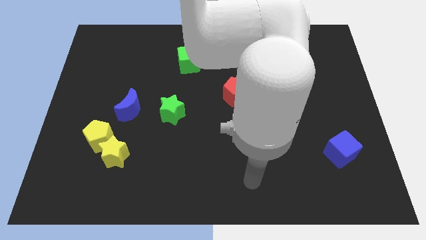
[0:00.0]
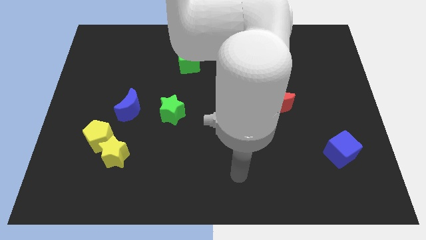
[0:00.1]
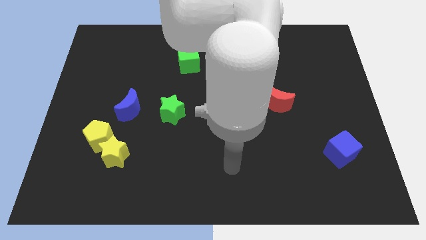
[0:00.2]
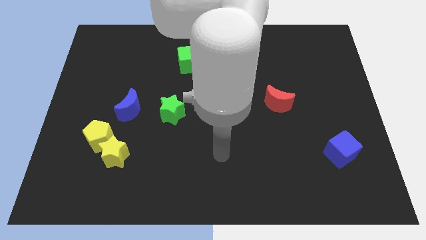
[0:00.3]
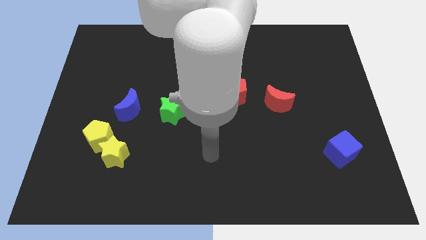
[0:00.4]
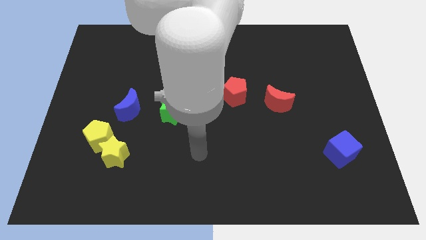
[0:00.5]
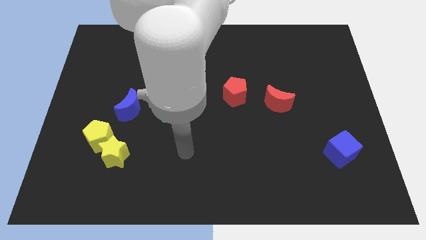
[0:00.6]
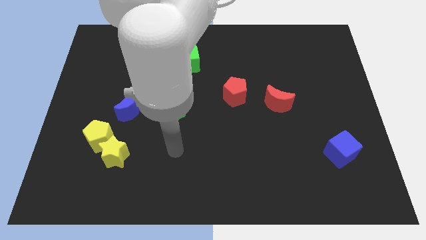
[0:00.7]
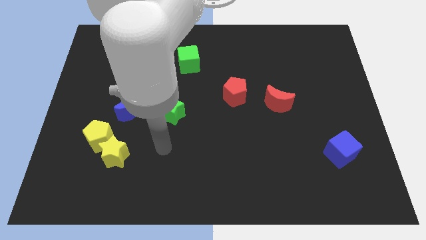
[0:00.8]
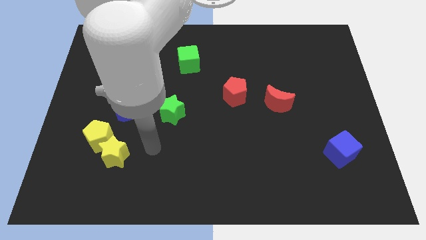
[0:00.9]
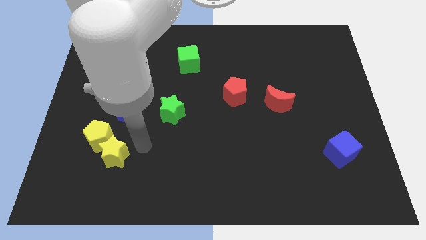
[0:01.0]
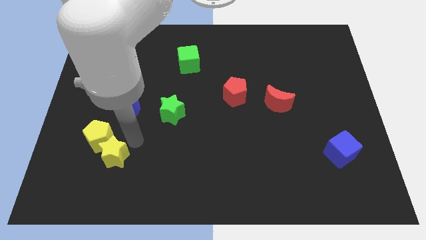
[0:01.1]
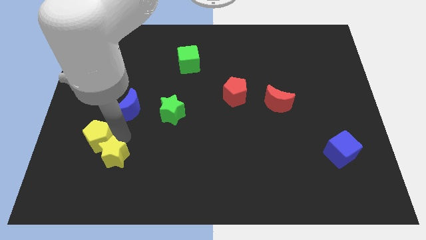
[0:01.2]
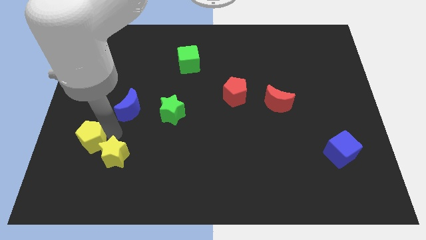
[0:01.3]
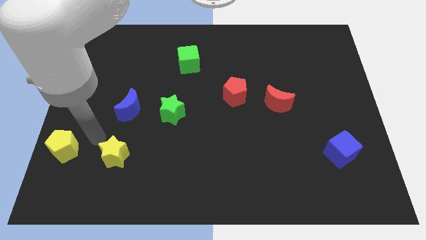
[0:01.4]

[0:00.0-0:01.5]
move the yellow star away from the yellow pentagon

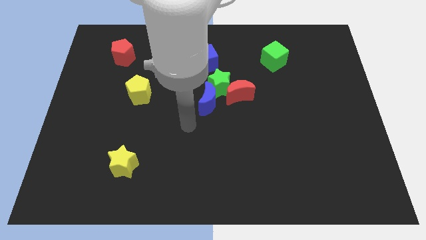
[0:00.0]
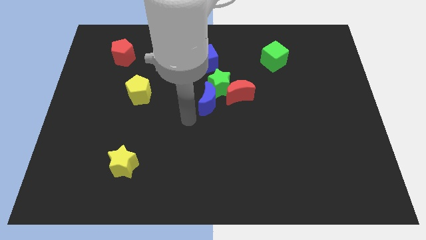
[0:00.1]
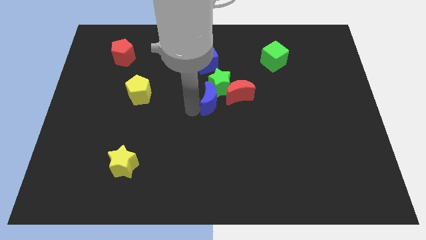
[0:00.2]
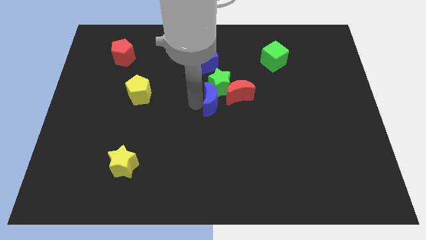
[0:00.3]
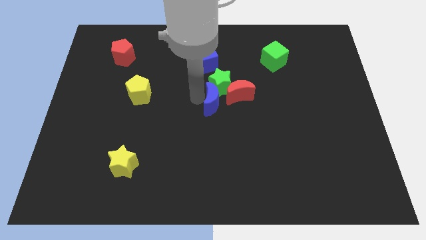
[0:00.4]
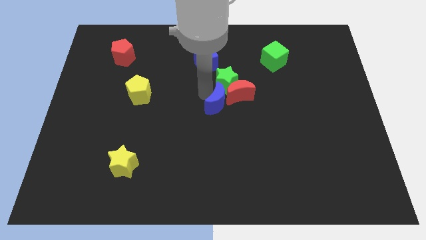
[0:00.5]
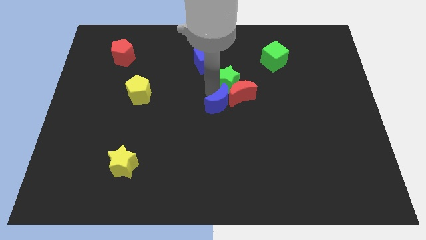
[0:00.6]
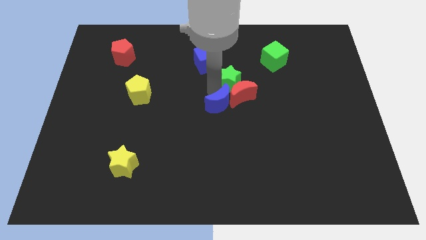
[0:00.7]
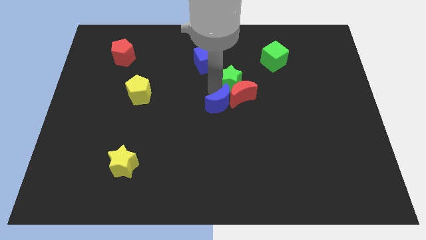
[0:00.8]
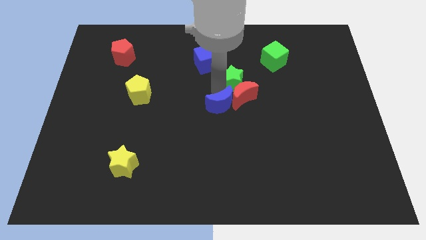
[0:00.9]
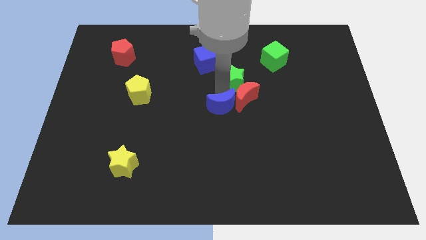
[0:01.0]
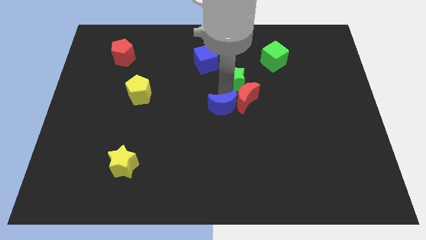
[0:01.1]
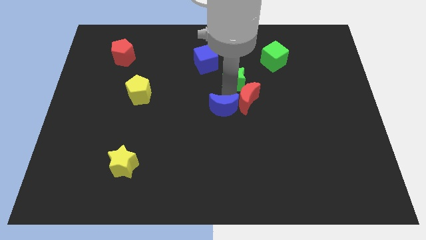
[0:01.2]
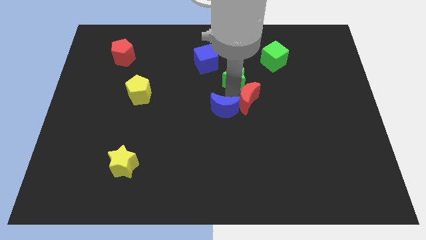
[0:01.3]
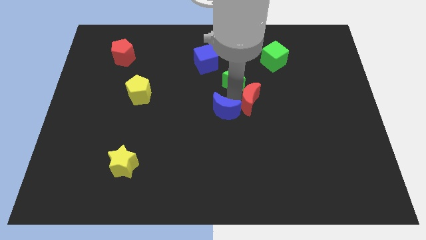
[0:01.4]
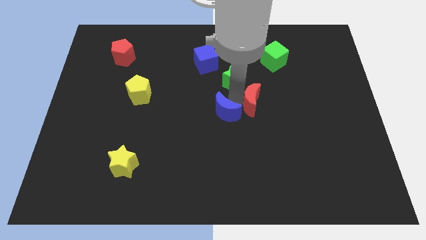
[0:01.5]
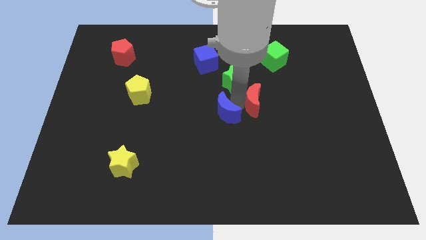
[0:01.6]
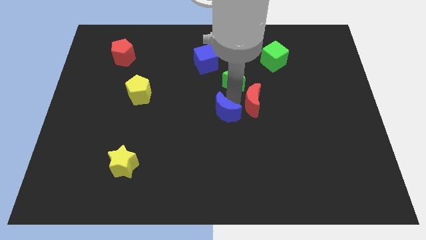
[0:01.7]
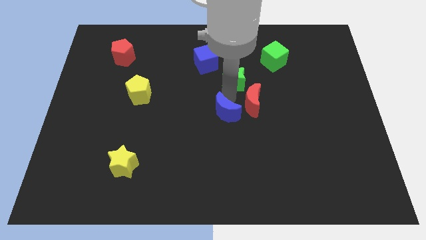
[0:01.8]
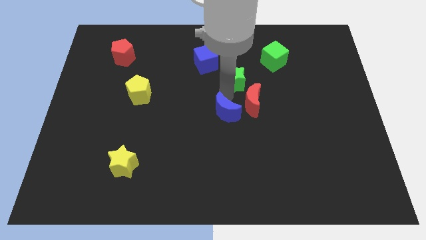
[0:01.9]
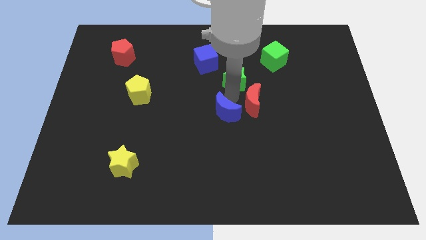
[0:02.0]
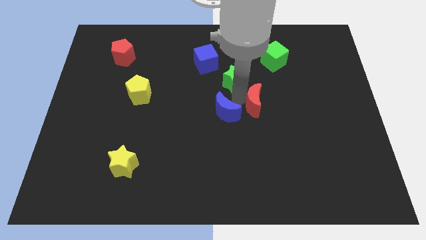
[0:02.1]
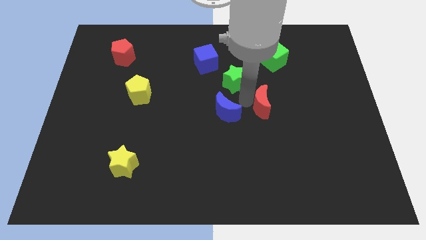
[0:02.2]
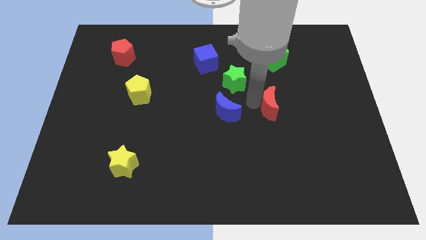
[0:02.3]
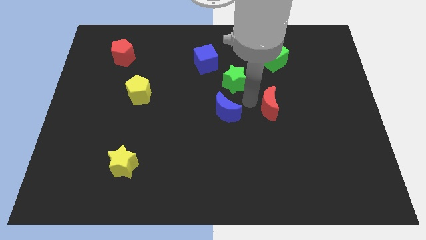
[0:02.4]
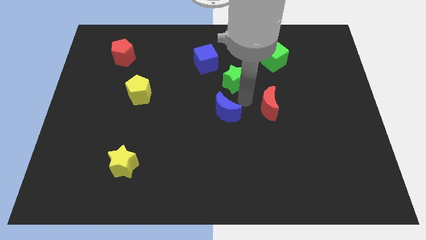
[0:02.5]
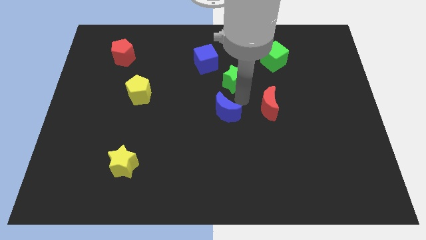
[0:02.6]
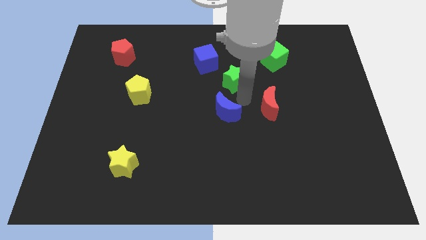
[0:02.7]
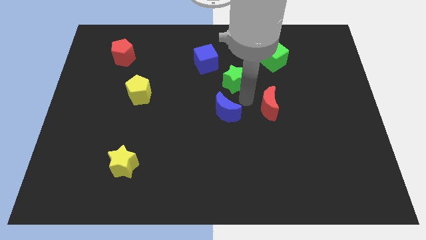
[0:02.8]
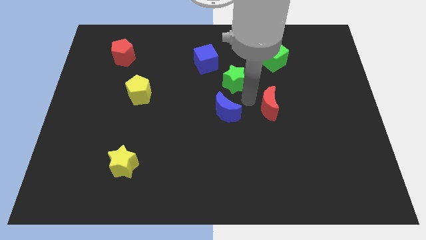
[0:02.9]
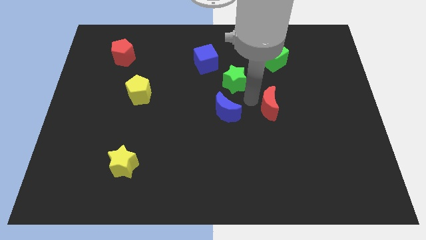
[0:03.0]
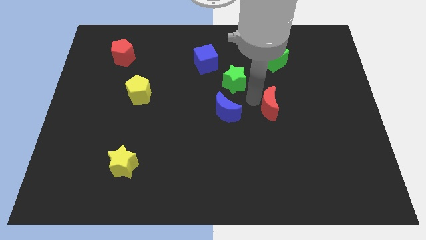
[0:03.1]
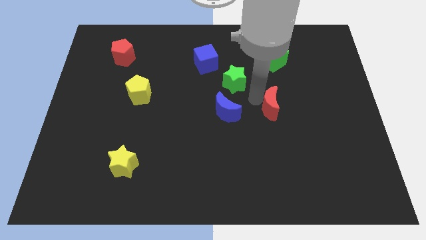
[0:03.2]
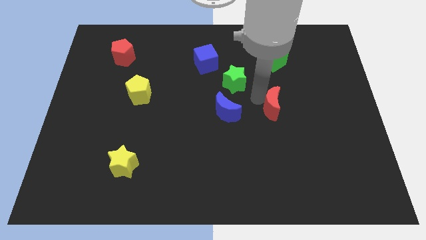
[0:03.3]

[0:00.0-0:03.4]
pull the red moon apart from the green star and blue moon

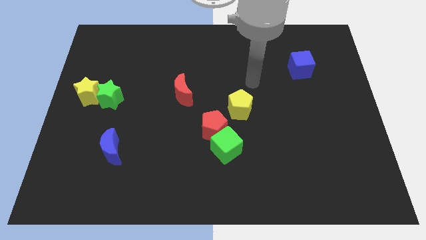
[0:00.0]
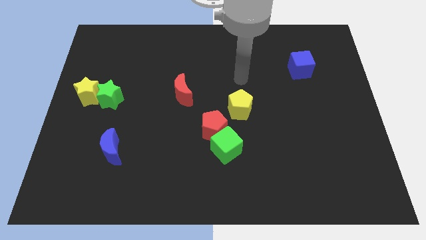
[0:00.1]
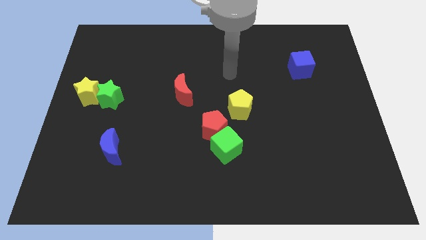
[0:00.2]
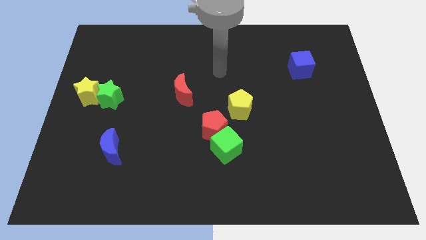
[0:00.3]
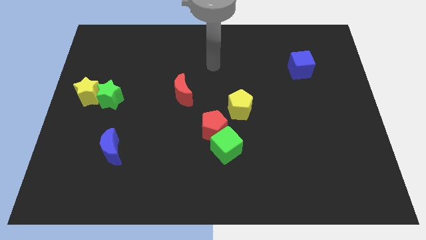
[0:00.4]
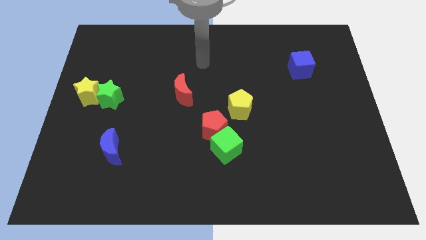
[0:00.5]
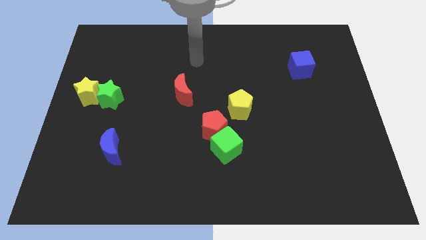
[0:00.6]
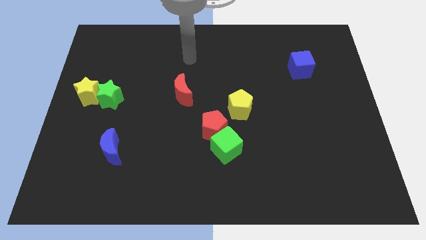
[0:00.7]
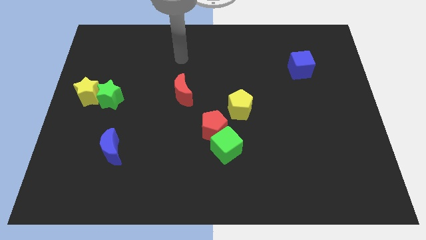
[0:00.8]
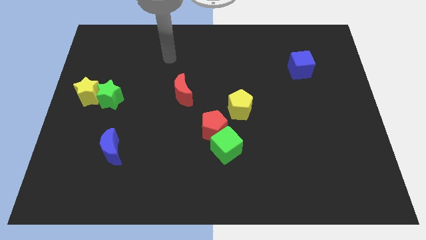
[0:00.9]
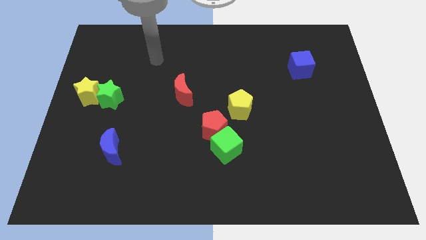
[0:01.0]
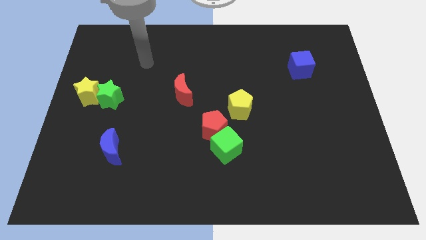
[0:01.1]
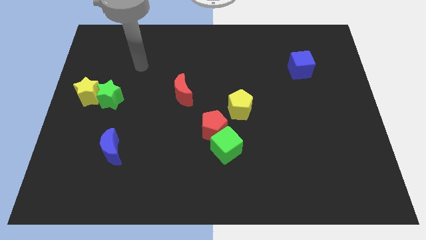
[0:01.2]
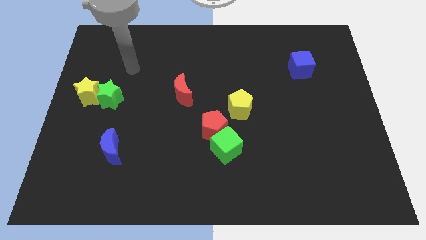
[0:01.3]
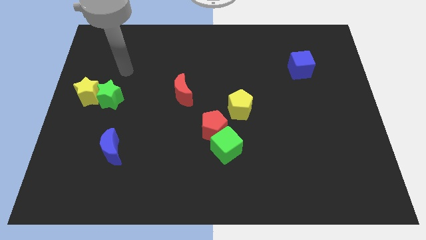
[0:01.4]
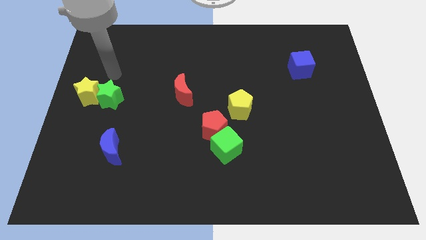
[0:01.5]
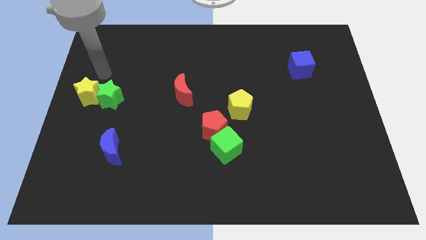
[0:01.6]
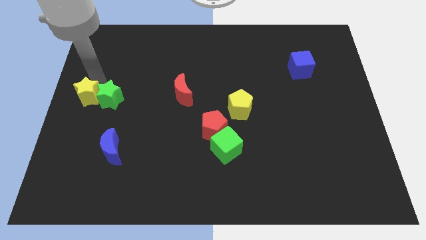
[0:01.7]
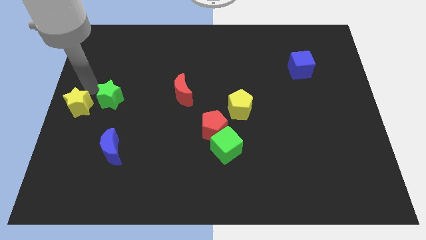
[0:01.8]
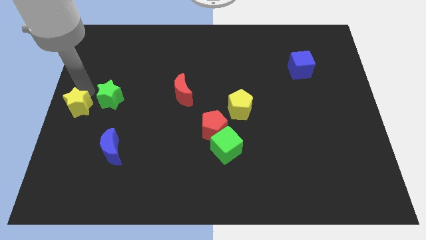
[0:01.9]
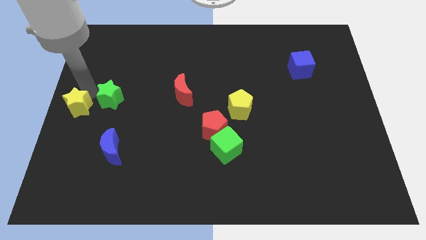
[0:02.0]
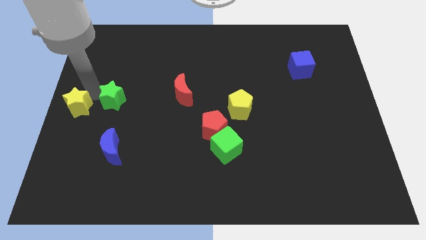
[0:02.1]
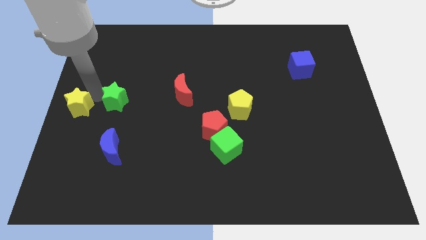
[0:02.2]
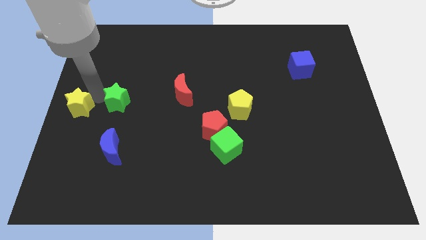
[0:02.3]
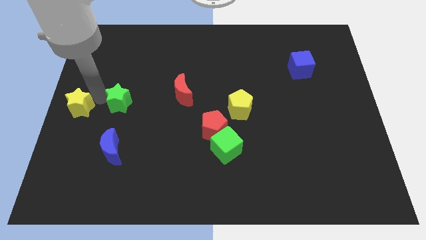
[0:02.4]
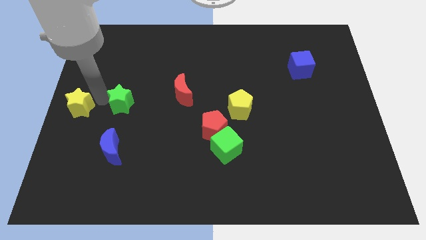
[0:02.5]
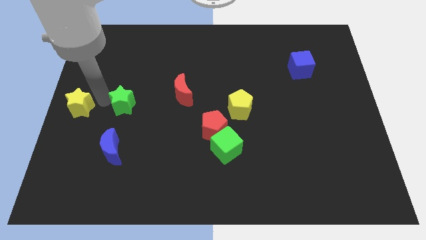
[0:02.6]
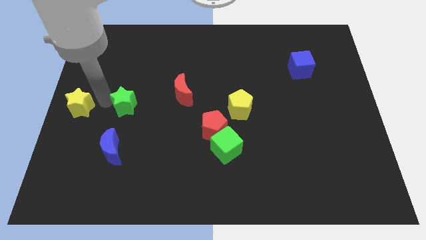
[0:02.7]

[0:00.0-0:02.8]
separate the green star from the yellow star

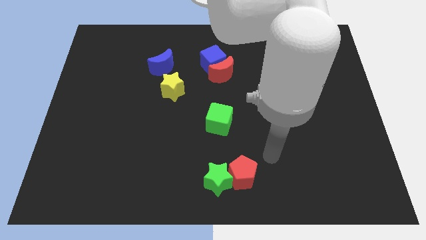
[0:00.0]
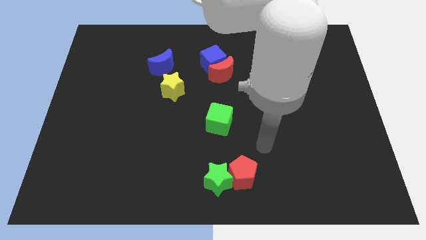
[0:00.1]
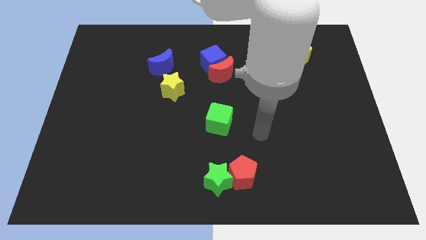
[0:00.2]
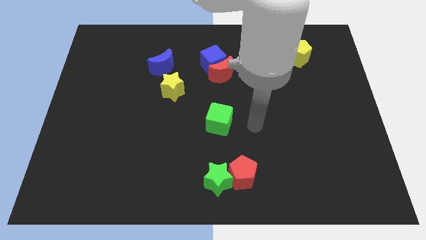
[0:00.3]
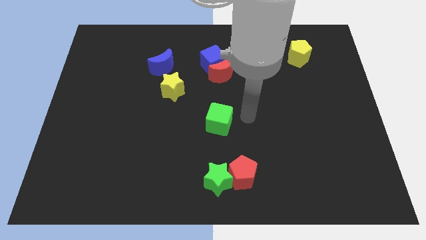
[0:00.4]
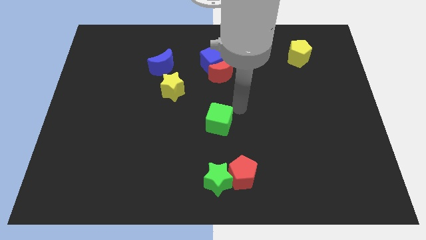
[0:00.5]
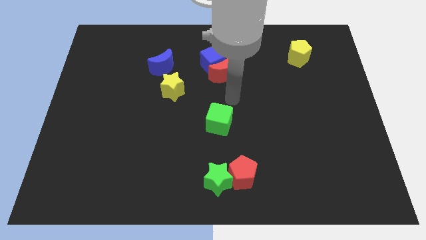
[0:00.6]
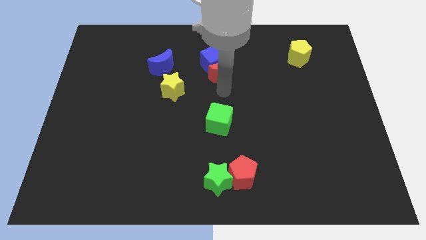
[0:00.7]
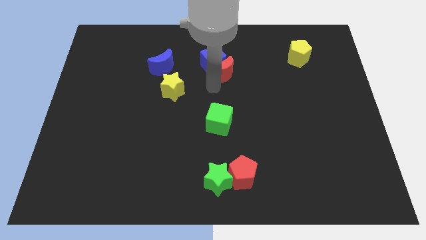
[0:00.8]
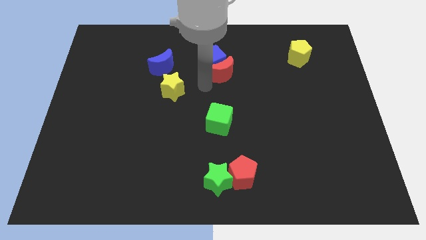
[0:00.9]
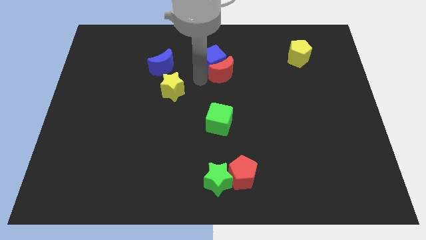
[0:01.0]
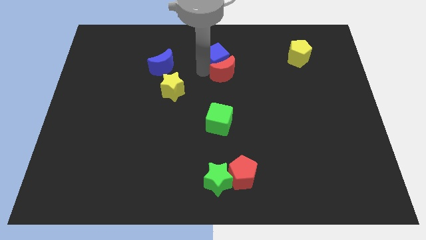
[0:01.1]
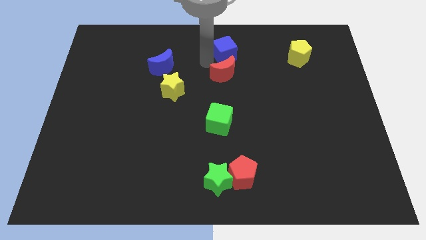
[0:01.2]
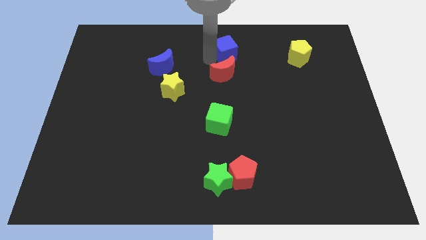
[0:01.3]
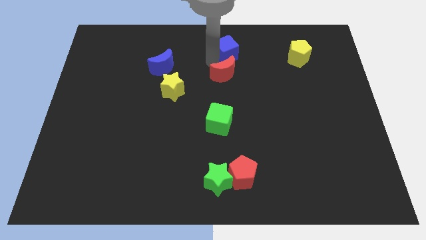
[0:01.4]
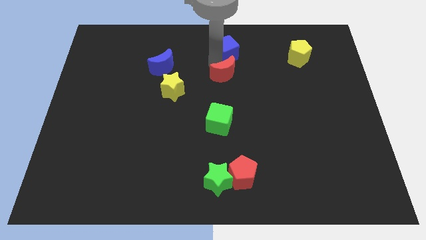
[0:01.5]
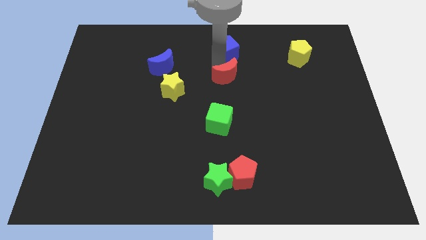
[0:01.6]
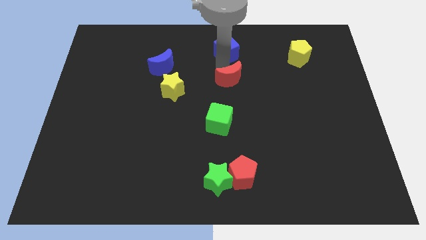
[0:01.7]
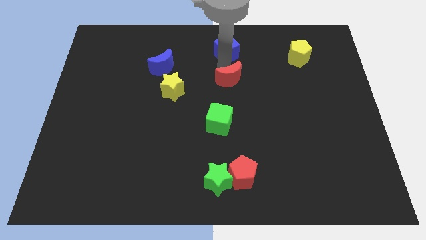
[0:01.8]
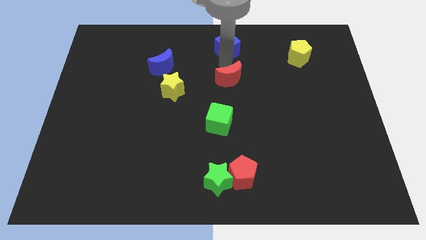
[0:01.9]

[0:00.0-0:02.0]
pull the red moon apart from the blue cube
